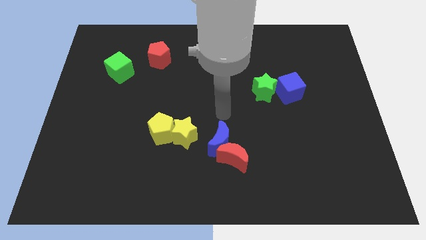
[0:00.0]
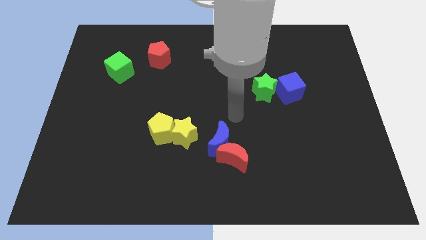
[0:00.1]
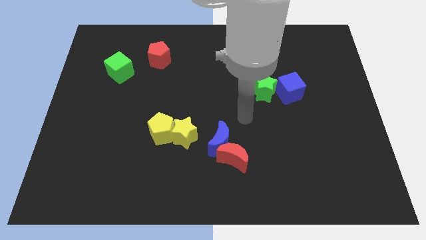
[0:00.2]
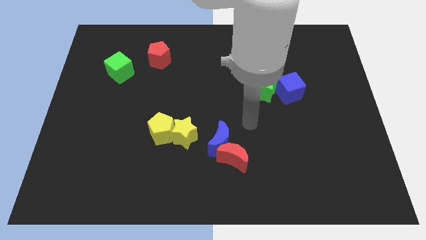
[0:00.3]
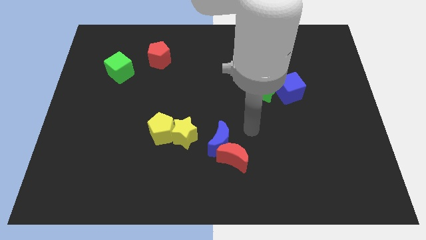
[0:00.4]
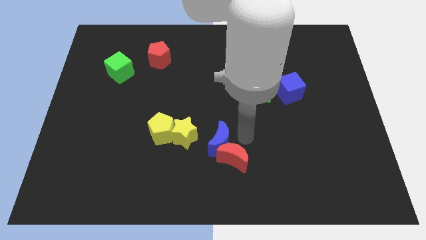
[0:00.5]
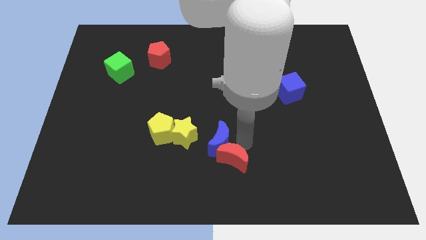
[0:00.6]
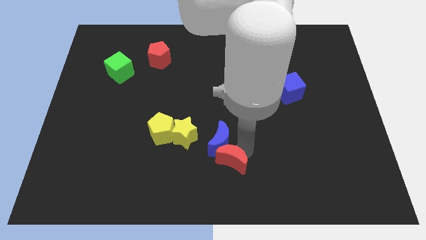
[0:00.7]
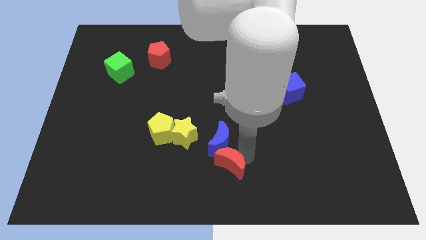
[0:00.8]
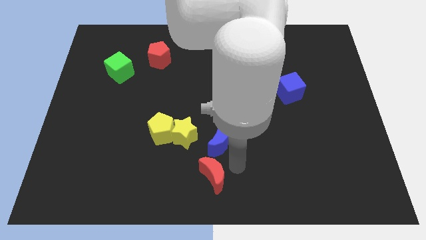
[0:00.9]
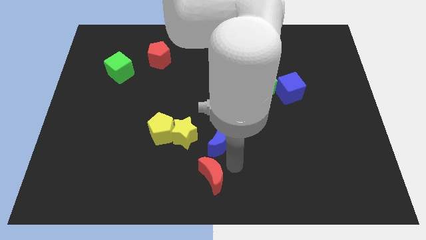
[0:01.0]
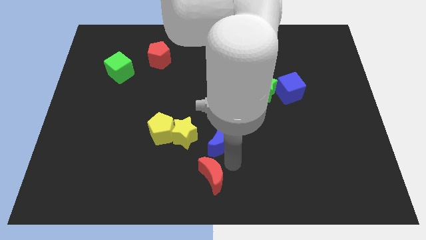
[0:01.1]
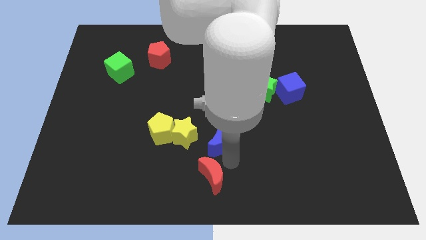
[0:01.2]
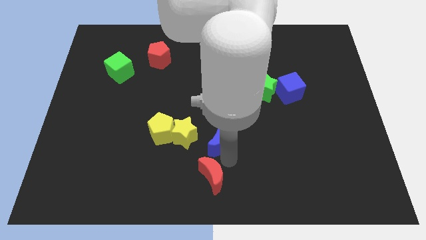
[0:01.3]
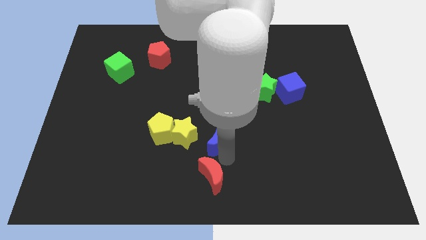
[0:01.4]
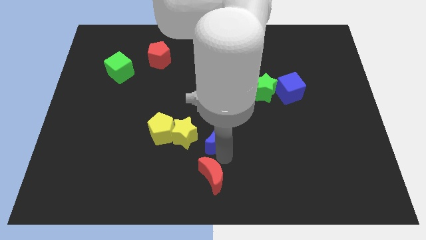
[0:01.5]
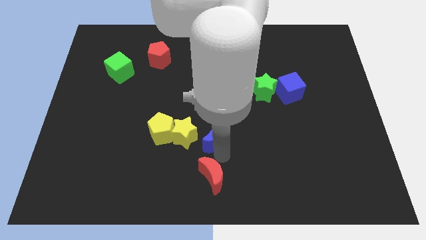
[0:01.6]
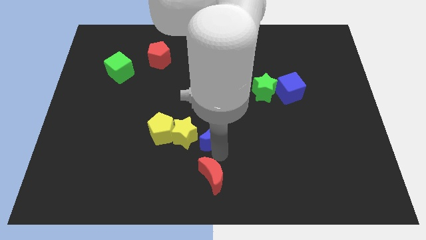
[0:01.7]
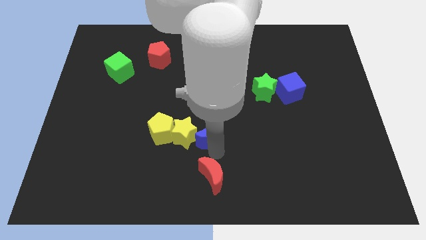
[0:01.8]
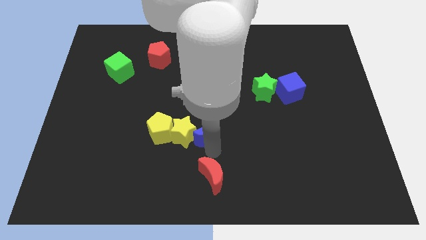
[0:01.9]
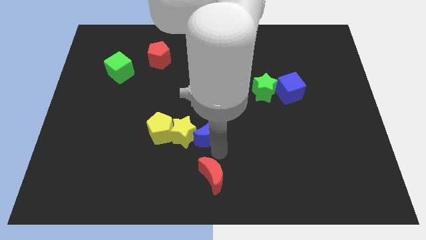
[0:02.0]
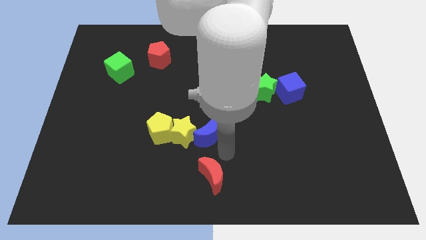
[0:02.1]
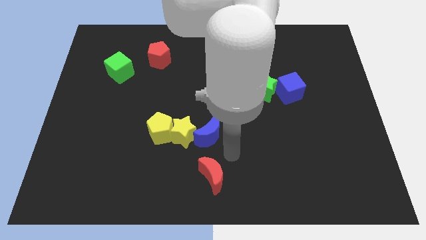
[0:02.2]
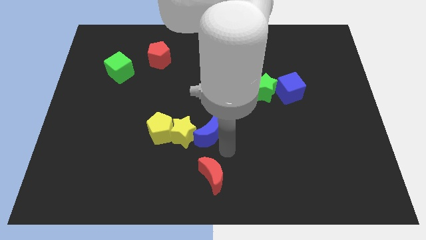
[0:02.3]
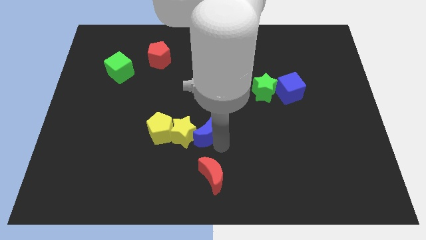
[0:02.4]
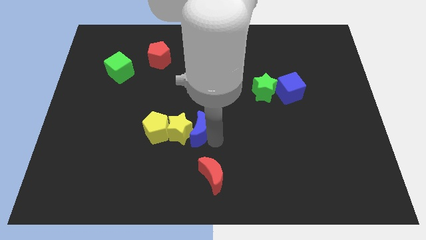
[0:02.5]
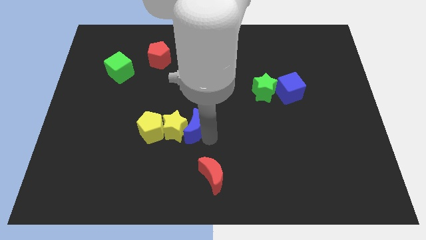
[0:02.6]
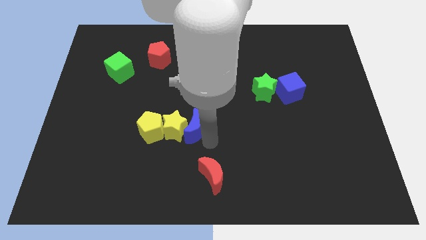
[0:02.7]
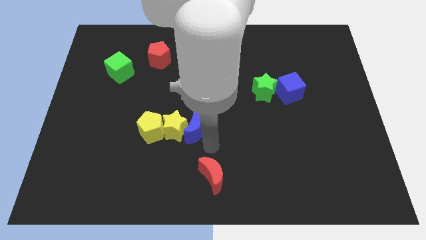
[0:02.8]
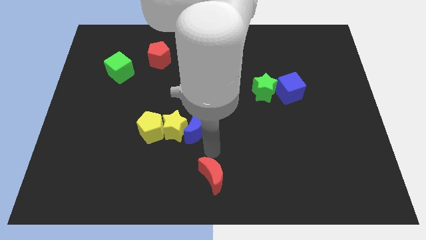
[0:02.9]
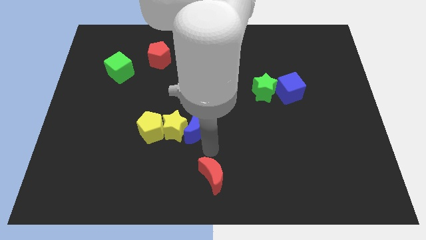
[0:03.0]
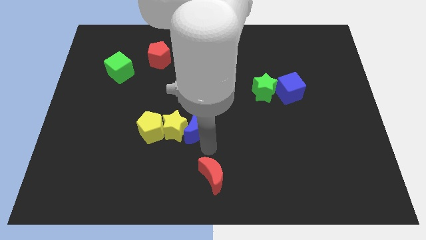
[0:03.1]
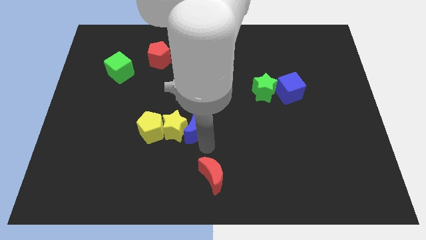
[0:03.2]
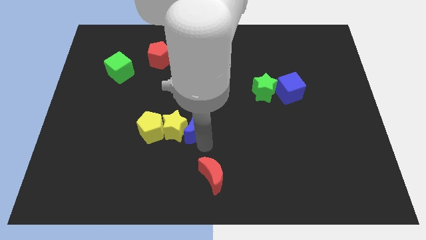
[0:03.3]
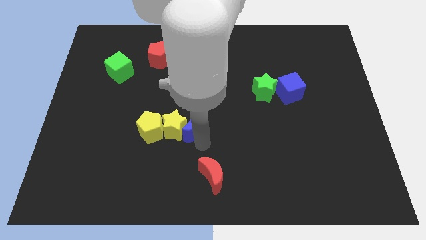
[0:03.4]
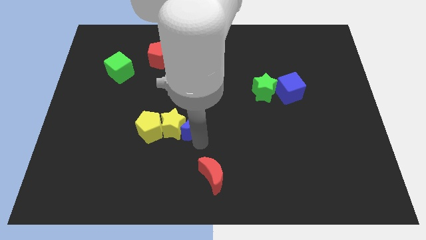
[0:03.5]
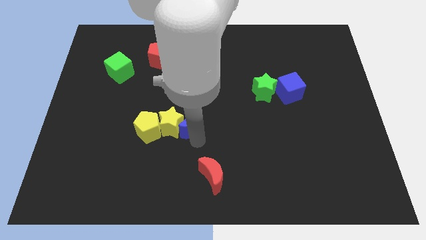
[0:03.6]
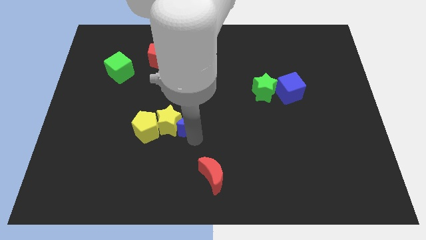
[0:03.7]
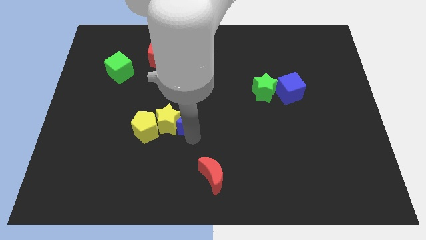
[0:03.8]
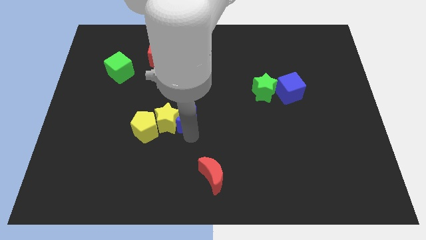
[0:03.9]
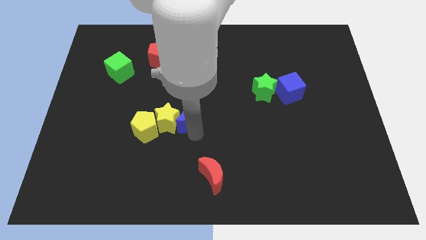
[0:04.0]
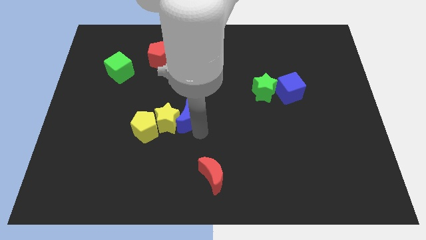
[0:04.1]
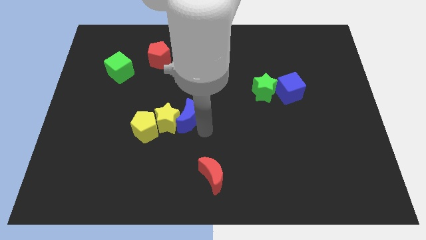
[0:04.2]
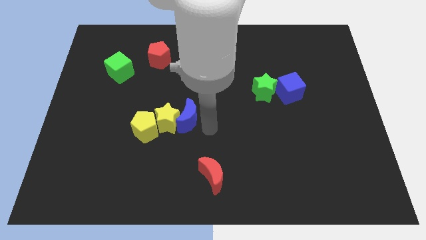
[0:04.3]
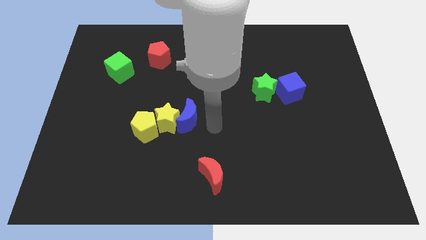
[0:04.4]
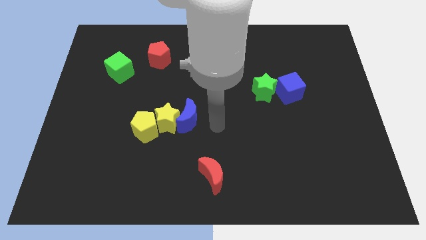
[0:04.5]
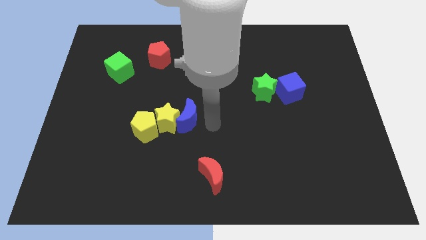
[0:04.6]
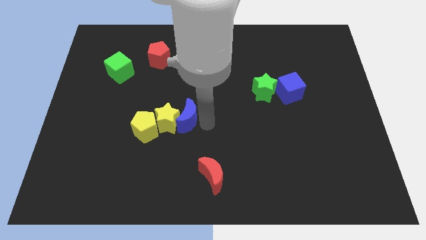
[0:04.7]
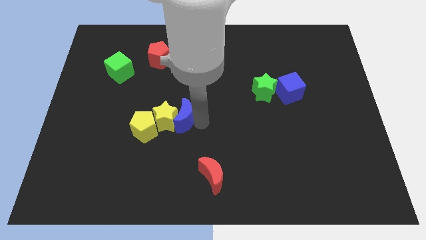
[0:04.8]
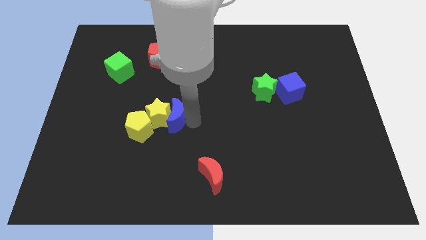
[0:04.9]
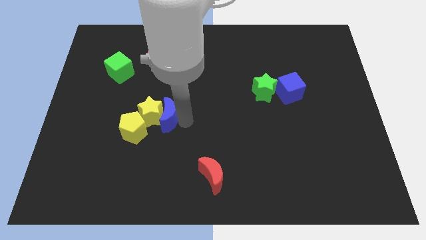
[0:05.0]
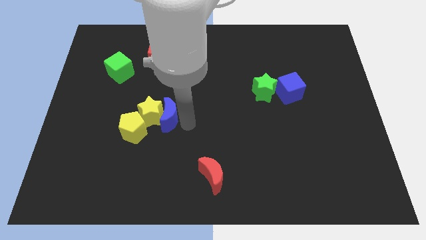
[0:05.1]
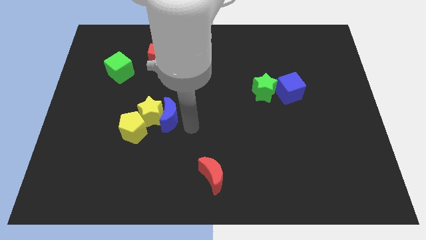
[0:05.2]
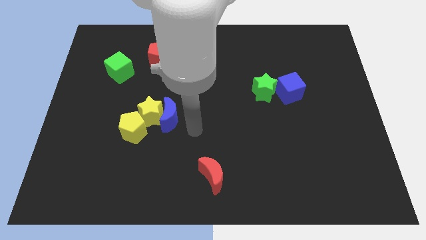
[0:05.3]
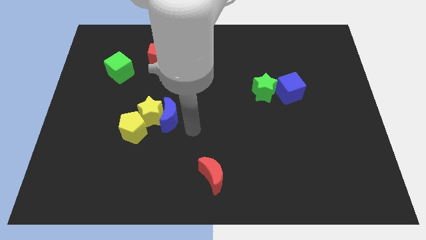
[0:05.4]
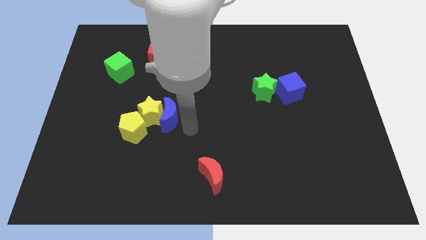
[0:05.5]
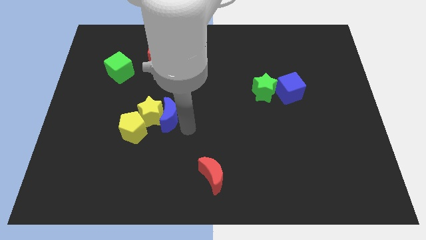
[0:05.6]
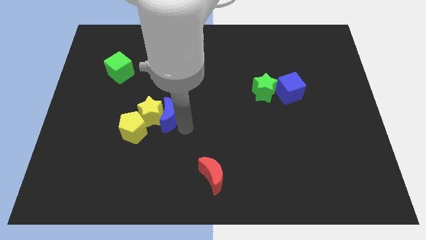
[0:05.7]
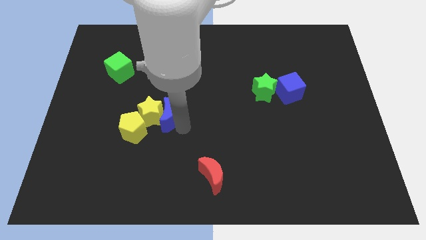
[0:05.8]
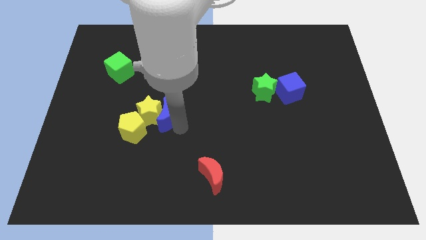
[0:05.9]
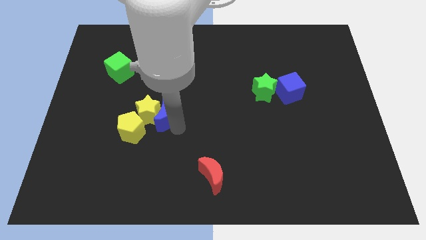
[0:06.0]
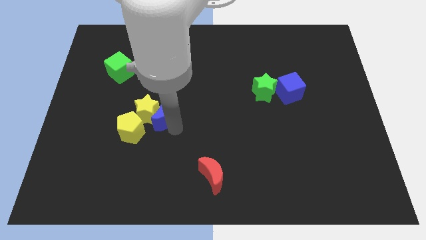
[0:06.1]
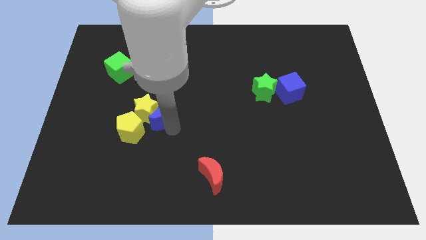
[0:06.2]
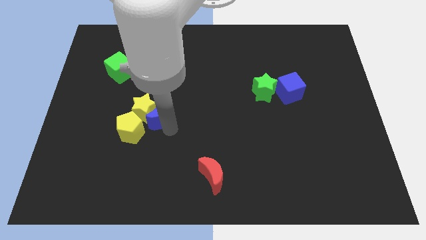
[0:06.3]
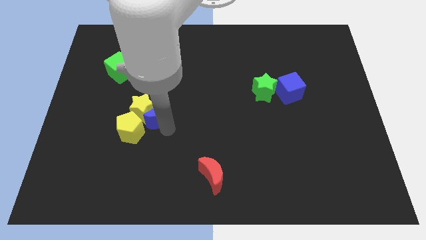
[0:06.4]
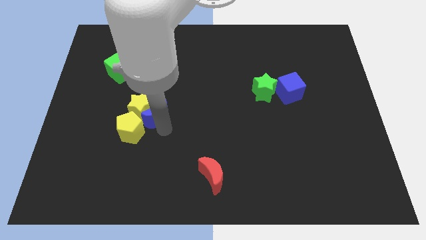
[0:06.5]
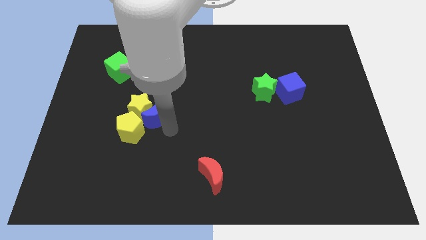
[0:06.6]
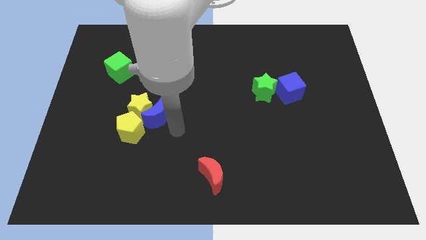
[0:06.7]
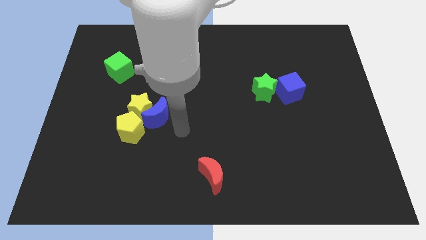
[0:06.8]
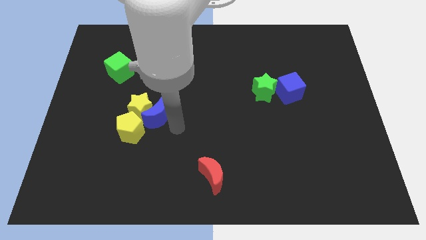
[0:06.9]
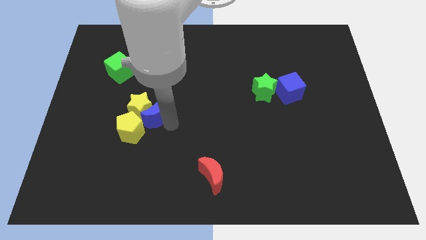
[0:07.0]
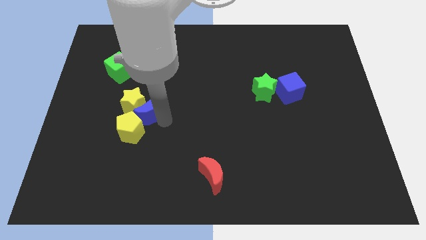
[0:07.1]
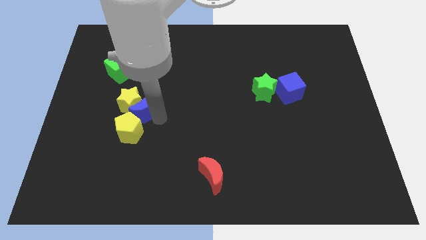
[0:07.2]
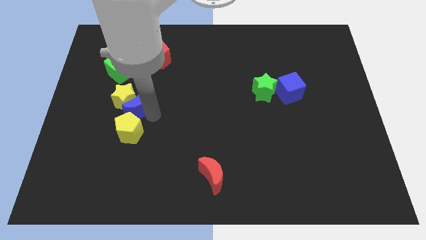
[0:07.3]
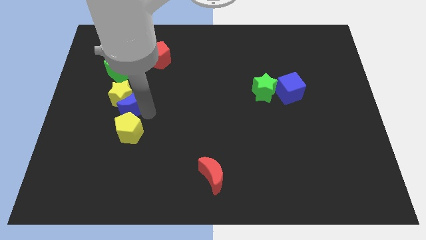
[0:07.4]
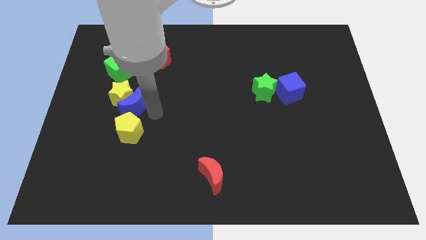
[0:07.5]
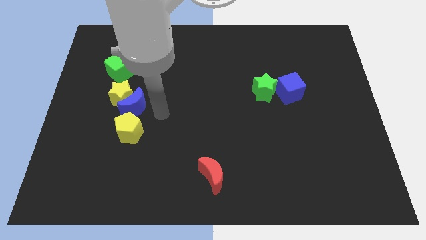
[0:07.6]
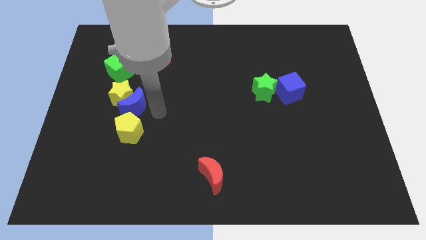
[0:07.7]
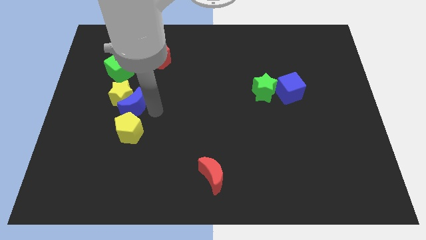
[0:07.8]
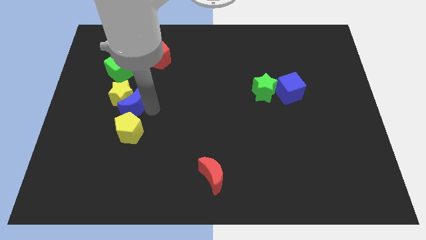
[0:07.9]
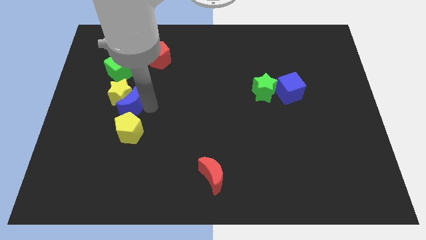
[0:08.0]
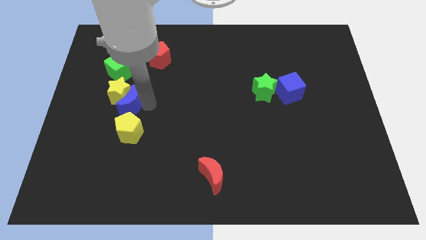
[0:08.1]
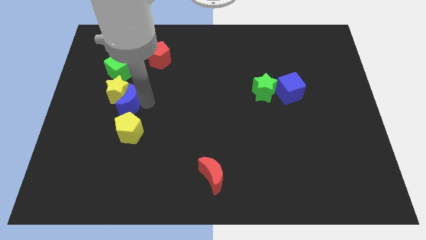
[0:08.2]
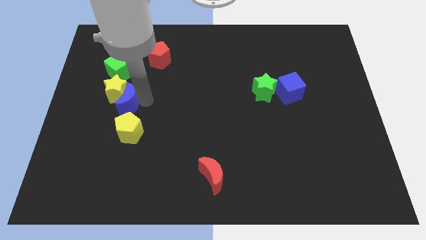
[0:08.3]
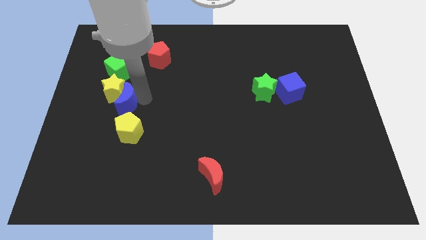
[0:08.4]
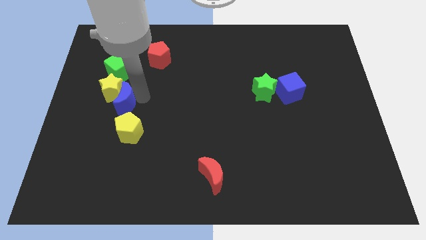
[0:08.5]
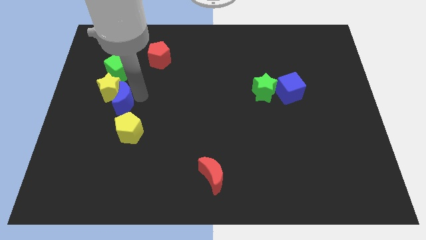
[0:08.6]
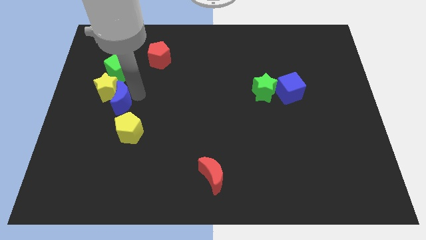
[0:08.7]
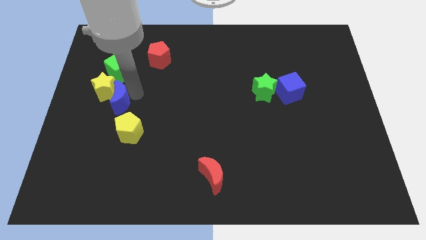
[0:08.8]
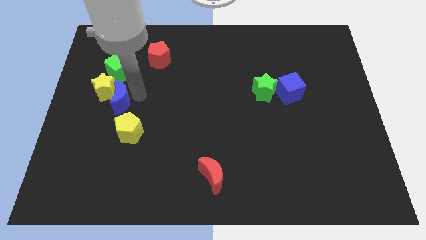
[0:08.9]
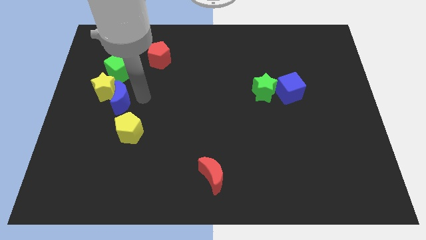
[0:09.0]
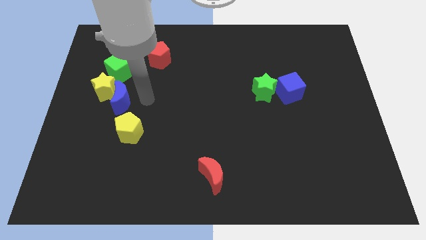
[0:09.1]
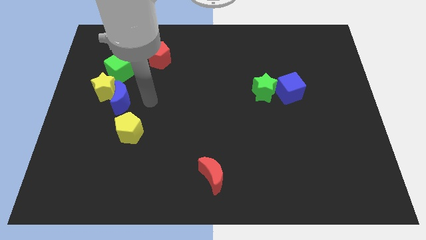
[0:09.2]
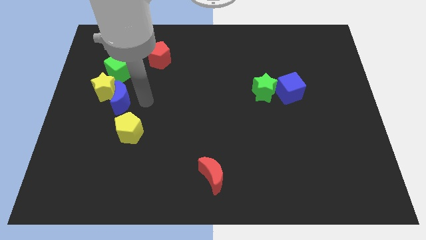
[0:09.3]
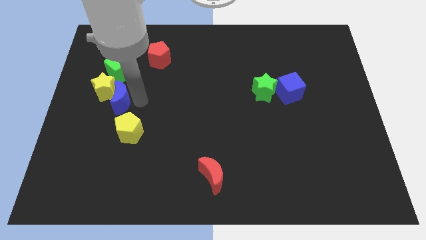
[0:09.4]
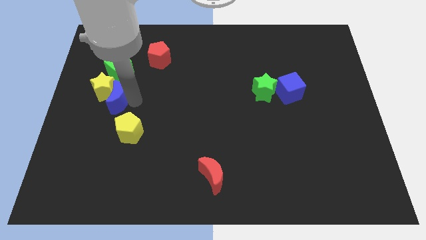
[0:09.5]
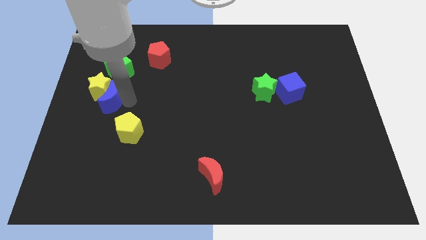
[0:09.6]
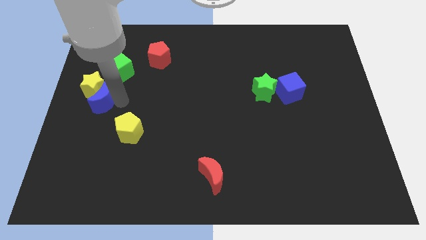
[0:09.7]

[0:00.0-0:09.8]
move the blue moon to the center left
